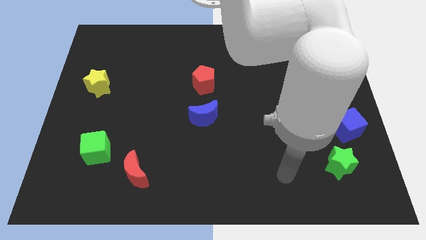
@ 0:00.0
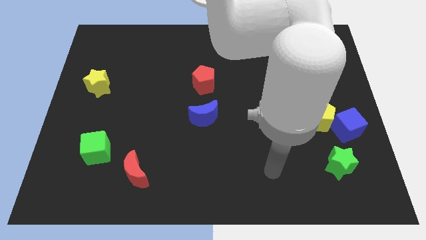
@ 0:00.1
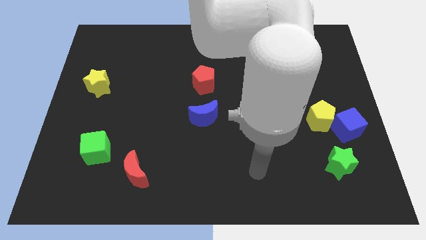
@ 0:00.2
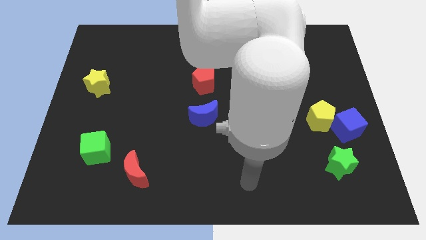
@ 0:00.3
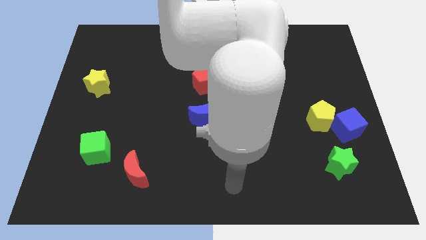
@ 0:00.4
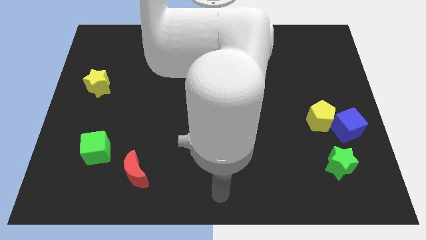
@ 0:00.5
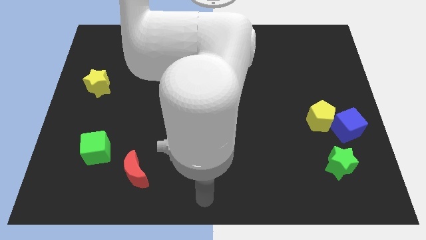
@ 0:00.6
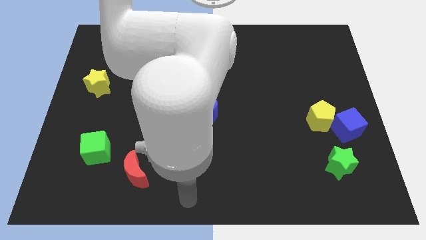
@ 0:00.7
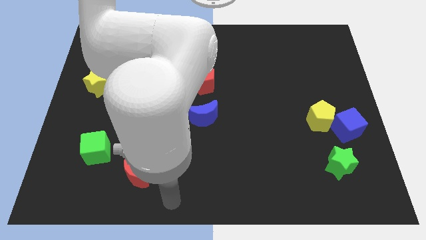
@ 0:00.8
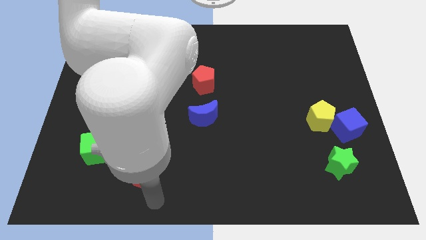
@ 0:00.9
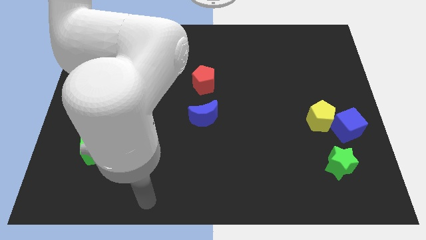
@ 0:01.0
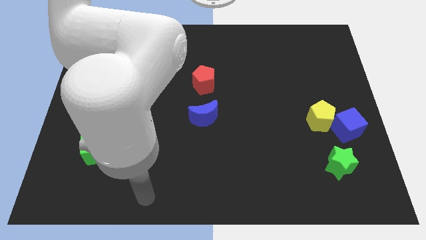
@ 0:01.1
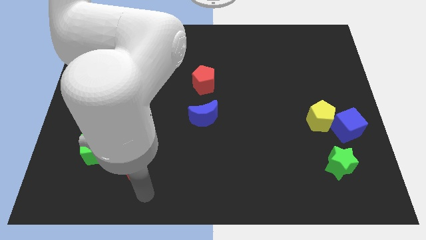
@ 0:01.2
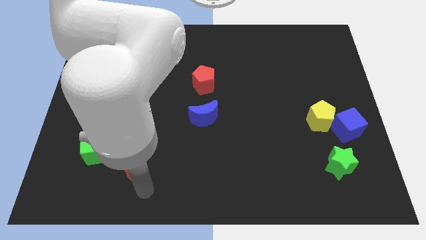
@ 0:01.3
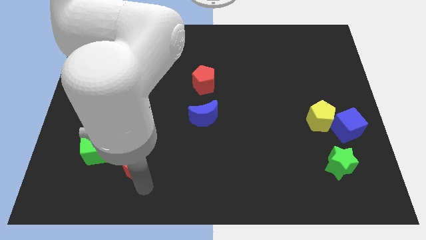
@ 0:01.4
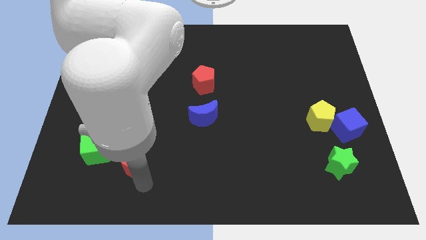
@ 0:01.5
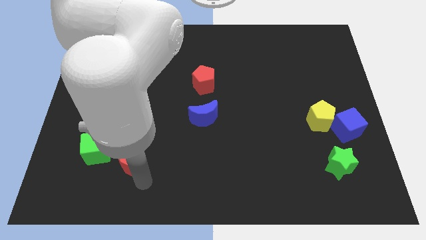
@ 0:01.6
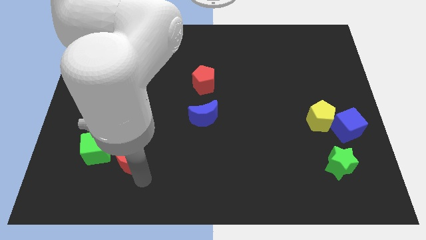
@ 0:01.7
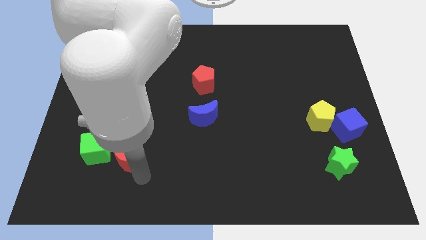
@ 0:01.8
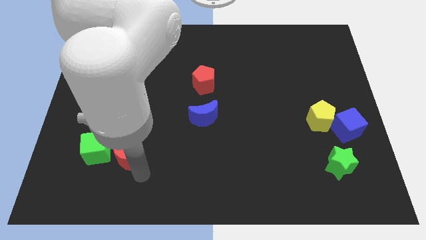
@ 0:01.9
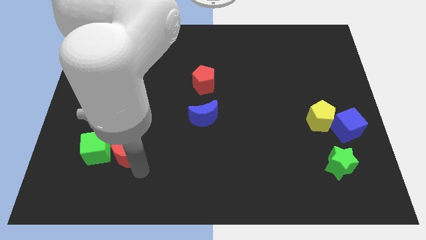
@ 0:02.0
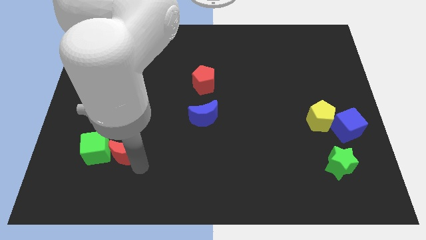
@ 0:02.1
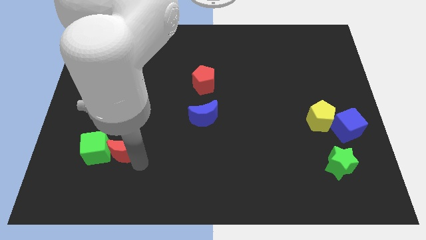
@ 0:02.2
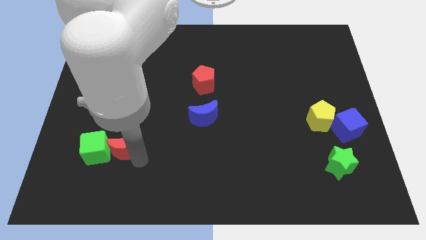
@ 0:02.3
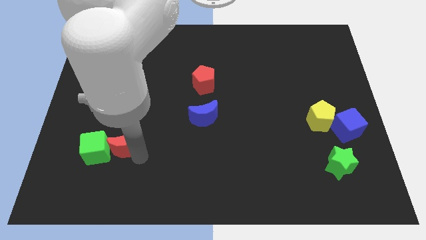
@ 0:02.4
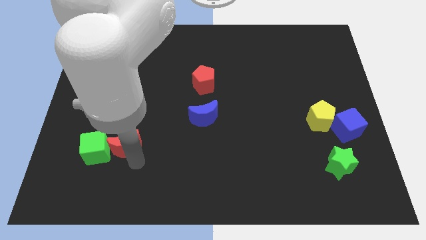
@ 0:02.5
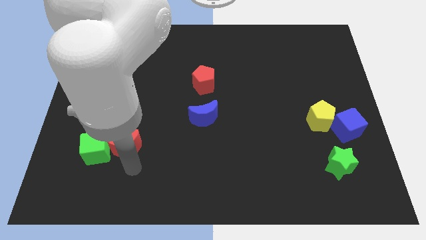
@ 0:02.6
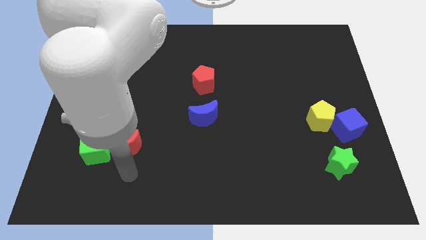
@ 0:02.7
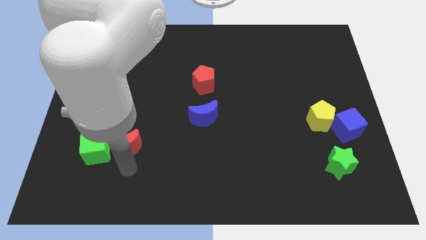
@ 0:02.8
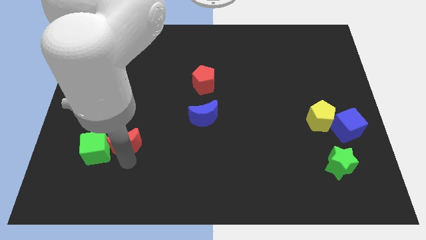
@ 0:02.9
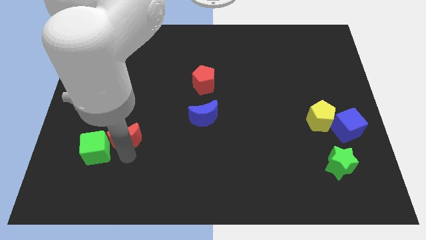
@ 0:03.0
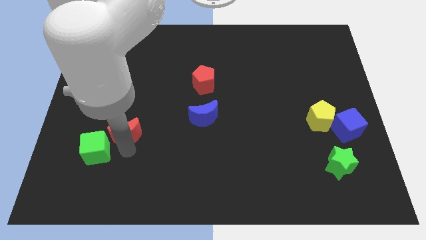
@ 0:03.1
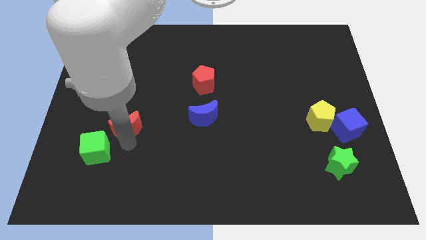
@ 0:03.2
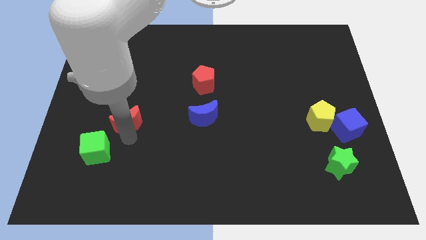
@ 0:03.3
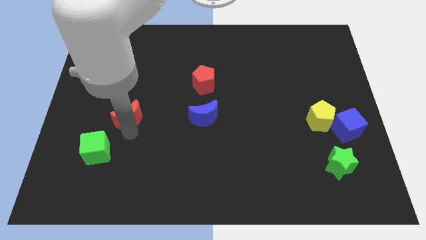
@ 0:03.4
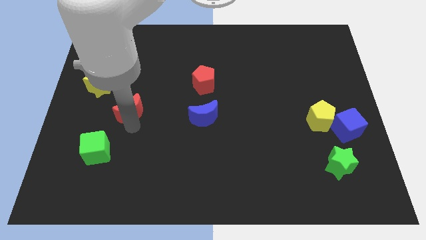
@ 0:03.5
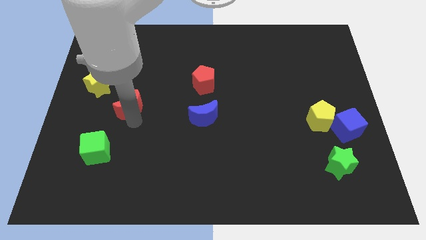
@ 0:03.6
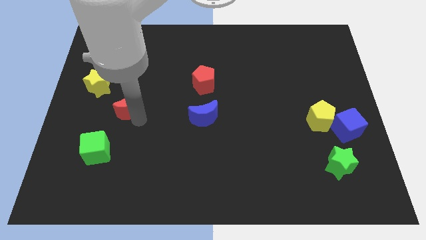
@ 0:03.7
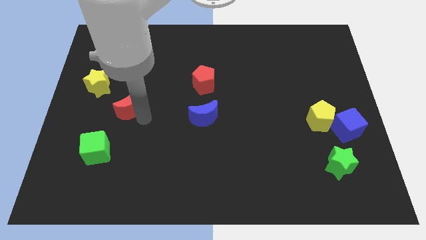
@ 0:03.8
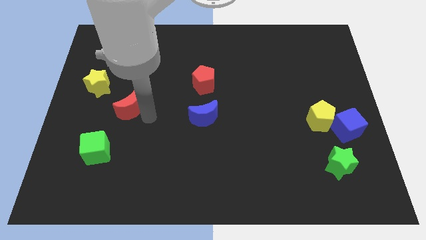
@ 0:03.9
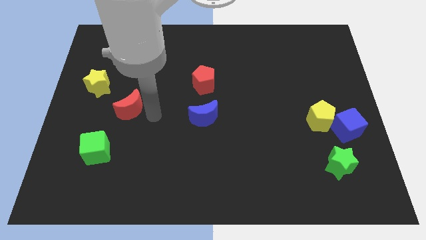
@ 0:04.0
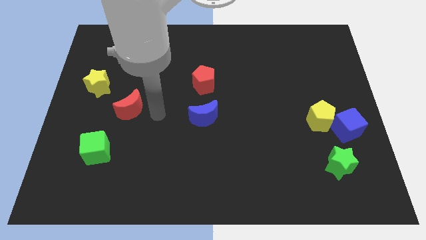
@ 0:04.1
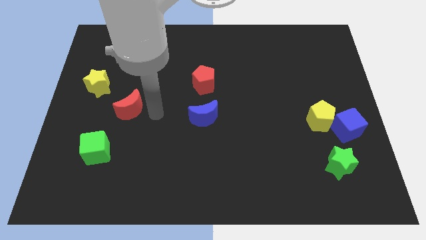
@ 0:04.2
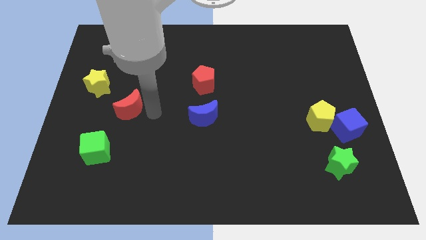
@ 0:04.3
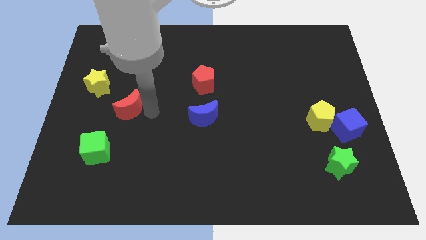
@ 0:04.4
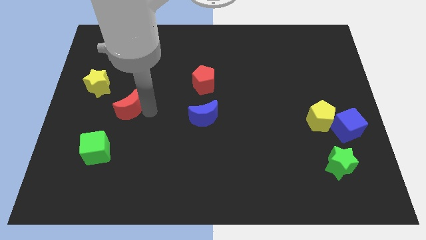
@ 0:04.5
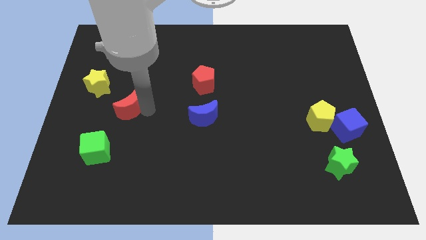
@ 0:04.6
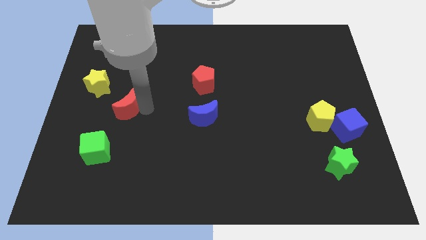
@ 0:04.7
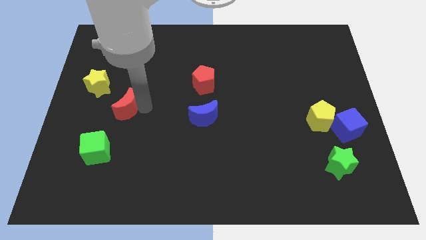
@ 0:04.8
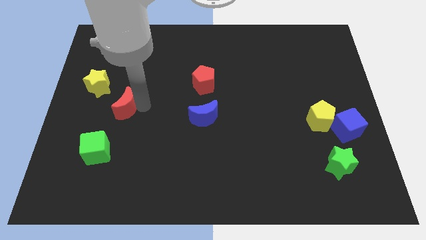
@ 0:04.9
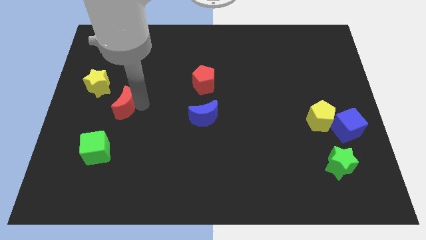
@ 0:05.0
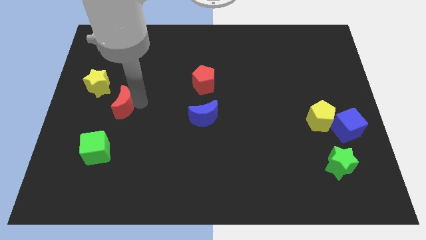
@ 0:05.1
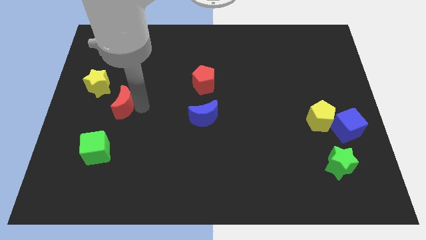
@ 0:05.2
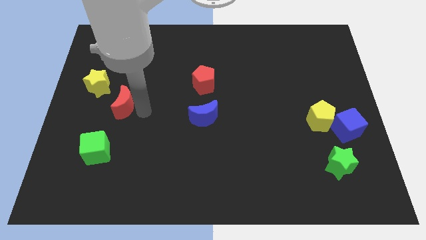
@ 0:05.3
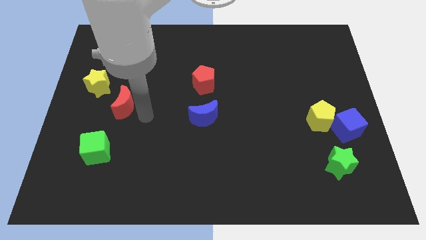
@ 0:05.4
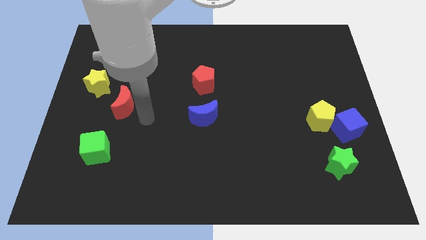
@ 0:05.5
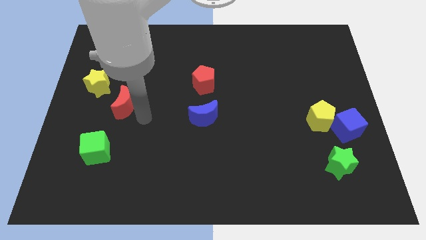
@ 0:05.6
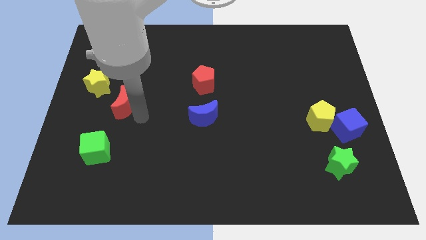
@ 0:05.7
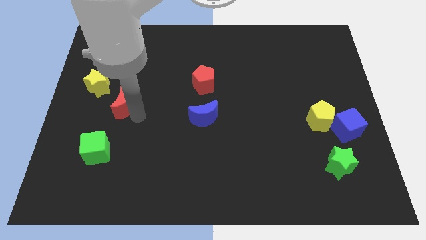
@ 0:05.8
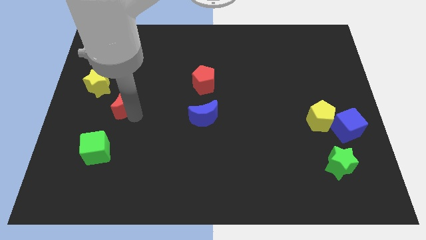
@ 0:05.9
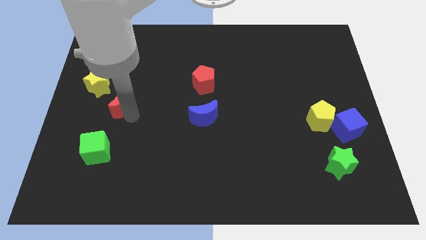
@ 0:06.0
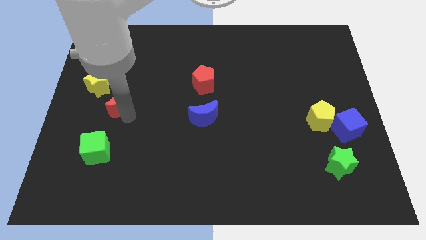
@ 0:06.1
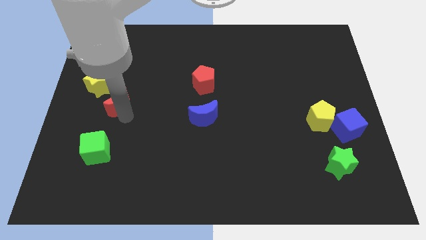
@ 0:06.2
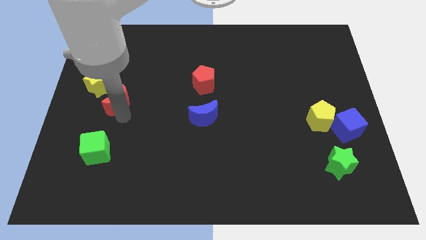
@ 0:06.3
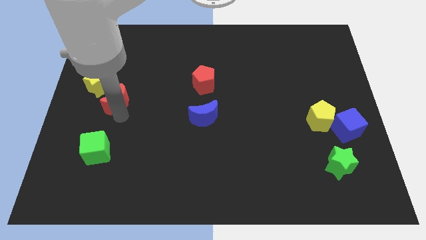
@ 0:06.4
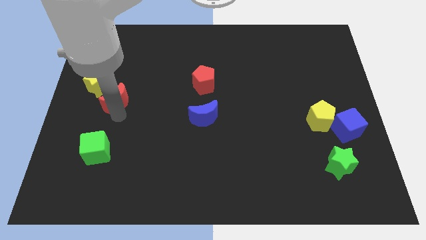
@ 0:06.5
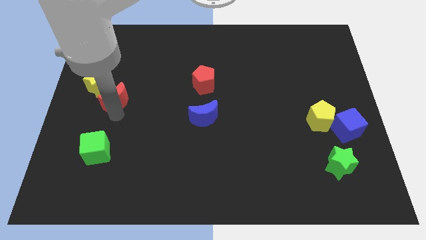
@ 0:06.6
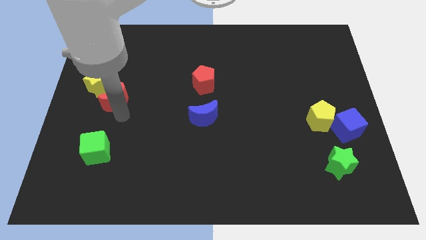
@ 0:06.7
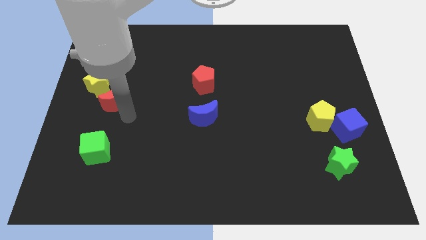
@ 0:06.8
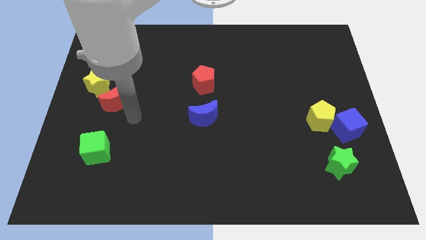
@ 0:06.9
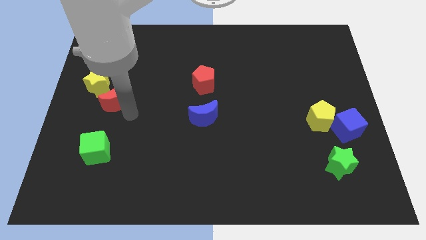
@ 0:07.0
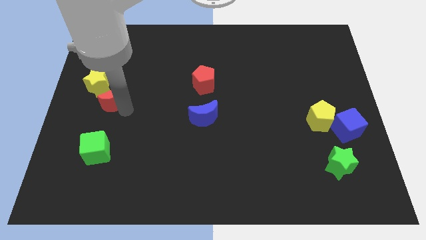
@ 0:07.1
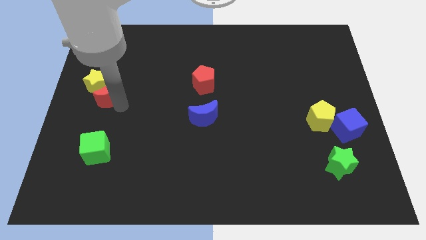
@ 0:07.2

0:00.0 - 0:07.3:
slide the red moon next to the yellow star
